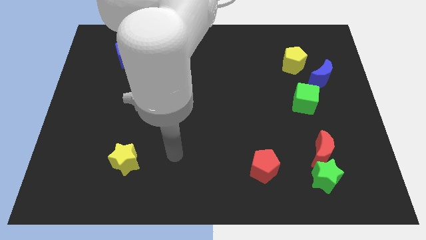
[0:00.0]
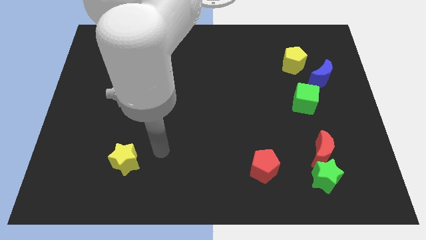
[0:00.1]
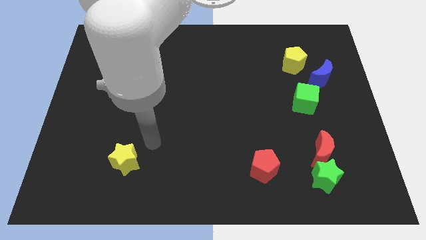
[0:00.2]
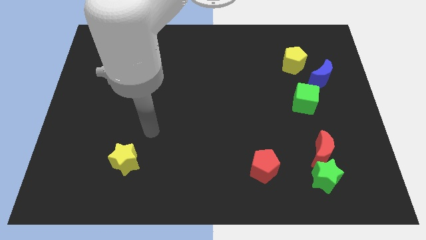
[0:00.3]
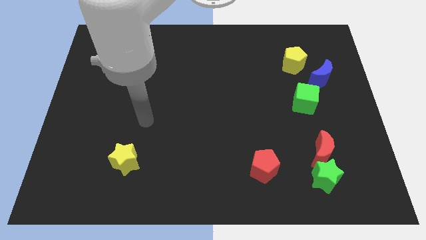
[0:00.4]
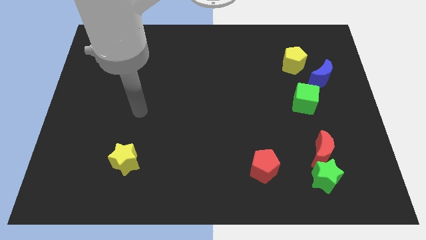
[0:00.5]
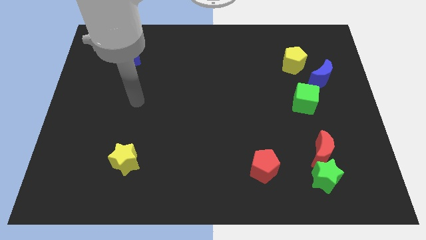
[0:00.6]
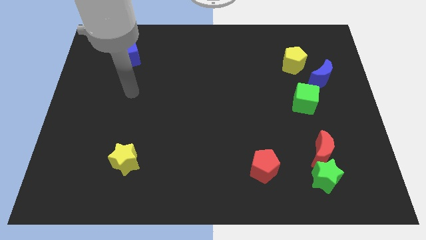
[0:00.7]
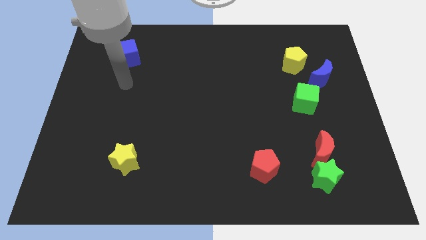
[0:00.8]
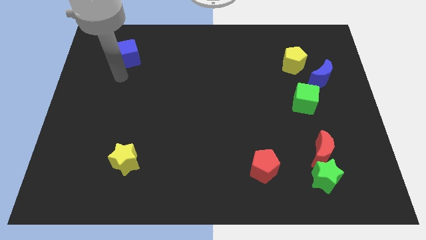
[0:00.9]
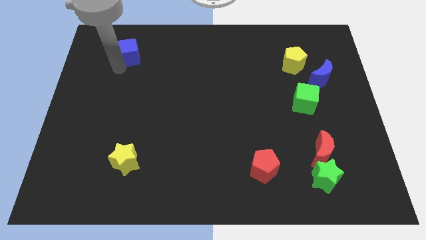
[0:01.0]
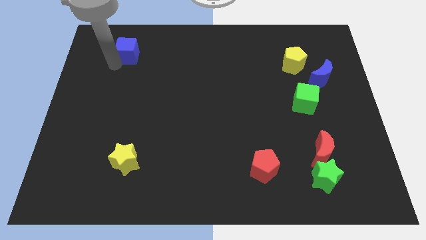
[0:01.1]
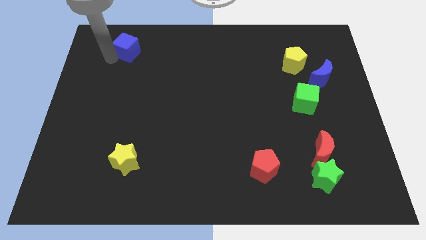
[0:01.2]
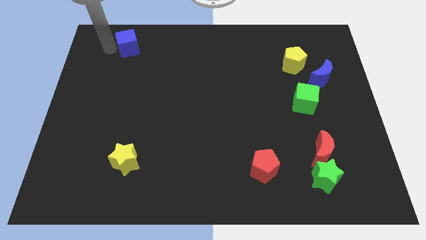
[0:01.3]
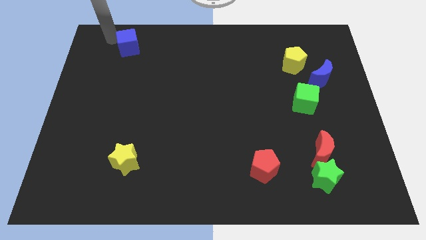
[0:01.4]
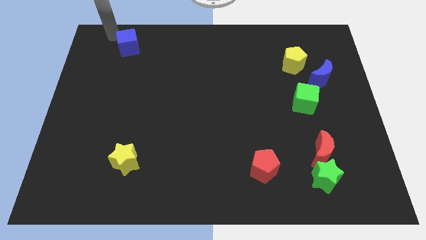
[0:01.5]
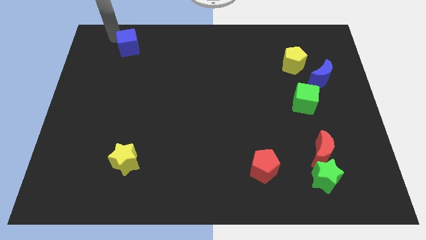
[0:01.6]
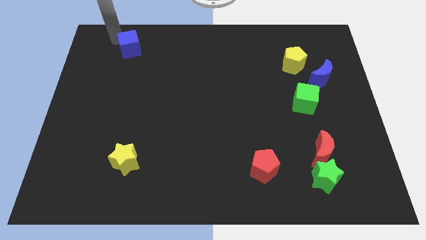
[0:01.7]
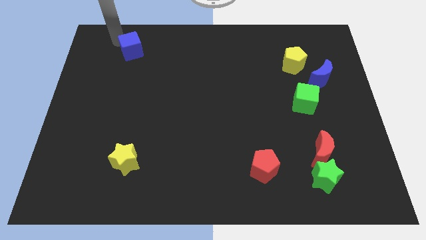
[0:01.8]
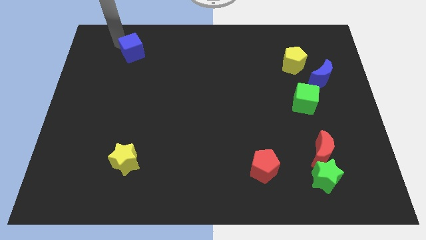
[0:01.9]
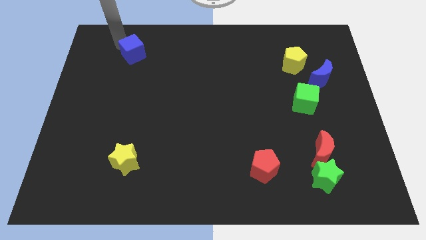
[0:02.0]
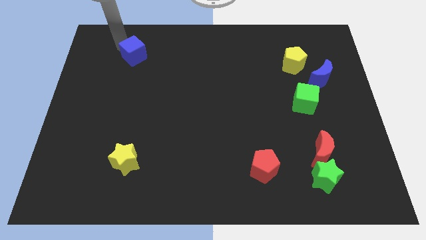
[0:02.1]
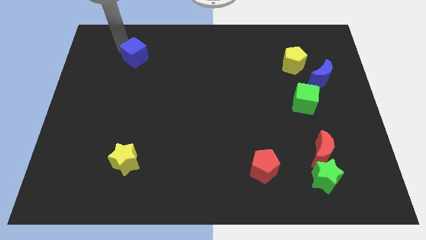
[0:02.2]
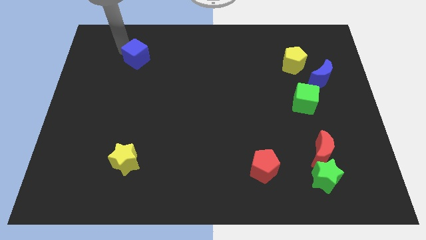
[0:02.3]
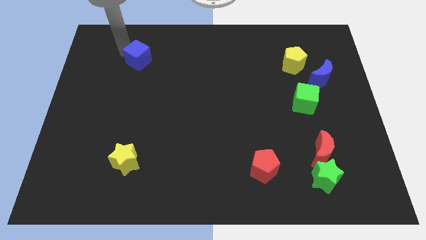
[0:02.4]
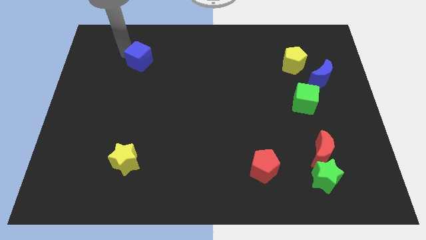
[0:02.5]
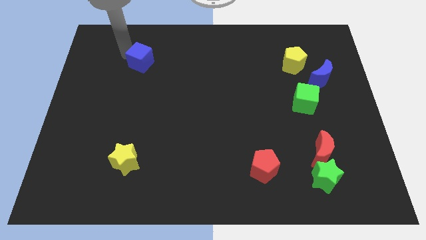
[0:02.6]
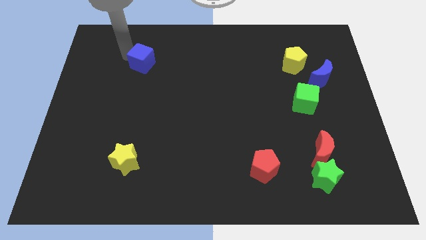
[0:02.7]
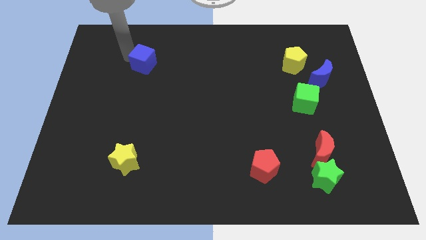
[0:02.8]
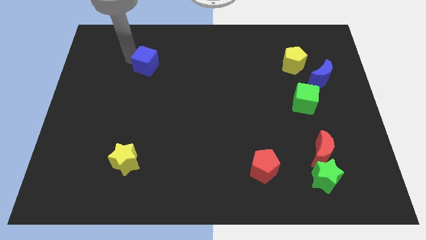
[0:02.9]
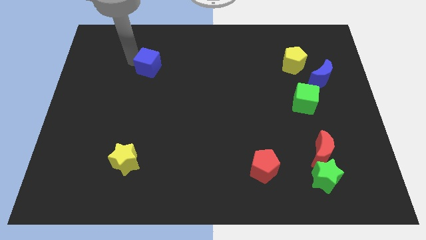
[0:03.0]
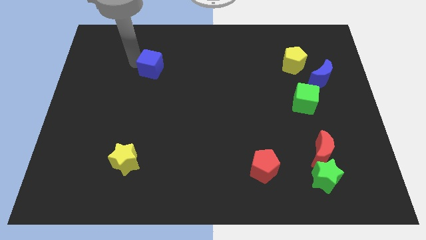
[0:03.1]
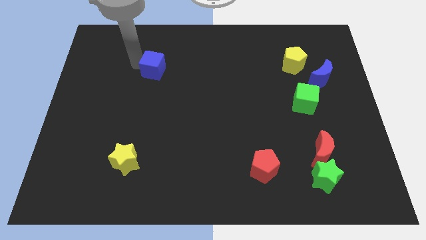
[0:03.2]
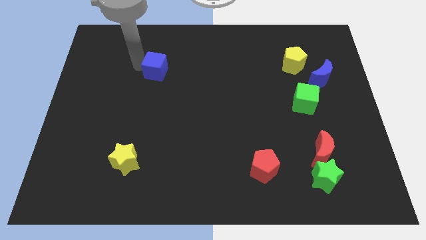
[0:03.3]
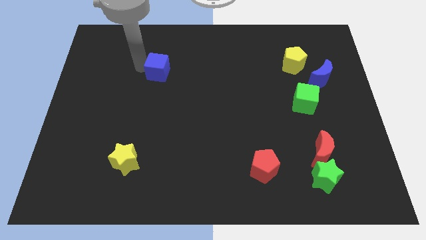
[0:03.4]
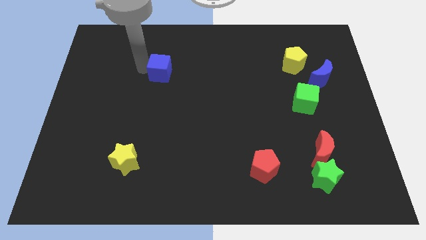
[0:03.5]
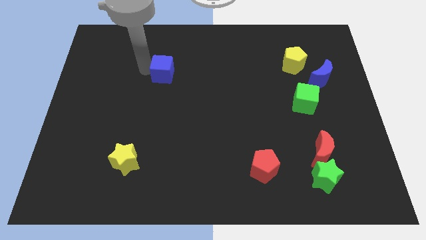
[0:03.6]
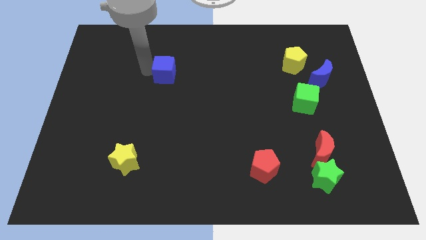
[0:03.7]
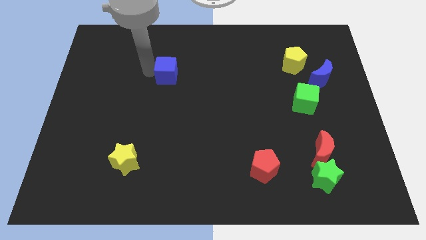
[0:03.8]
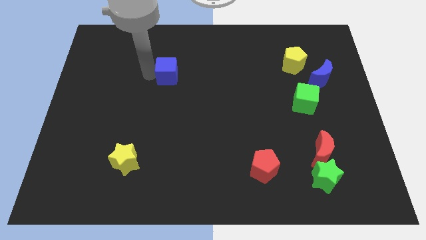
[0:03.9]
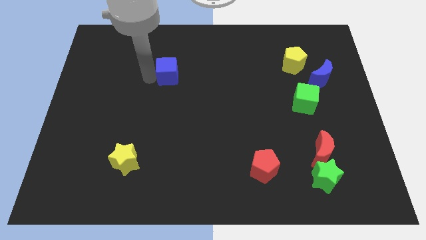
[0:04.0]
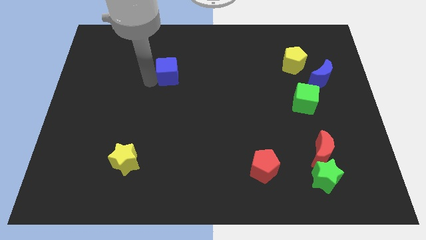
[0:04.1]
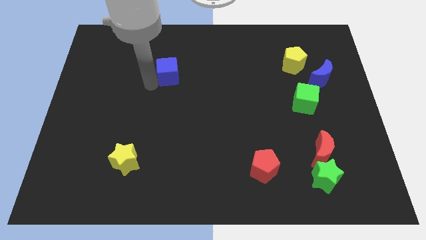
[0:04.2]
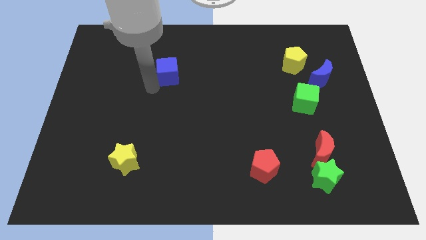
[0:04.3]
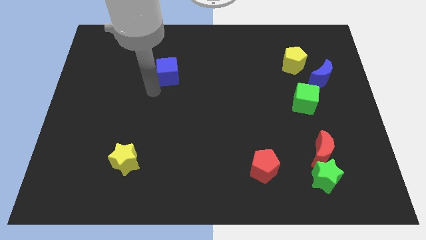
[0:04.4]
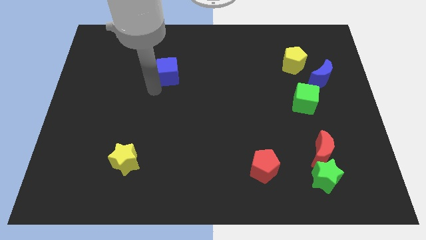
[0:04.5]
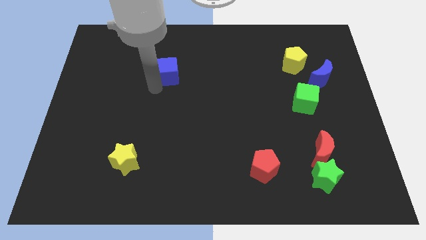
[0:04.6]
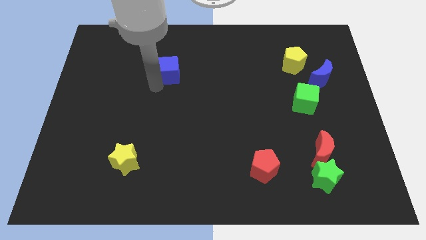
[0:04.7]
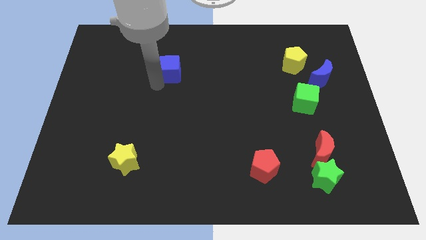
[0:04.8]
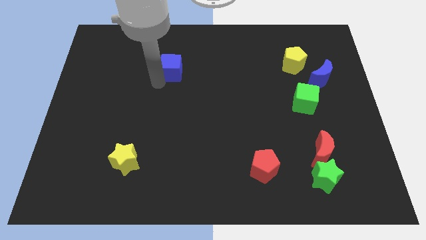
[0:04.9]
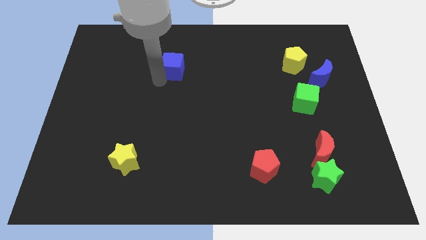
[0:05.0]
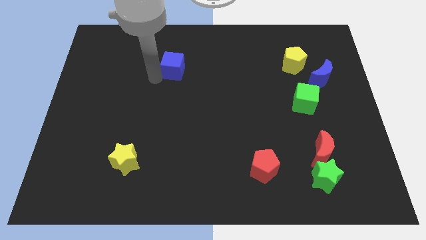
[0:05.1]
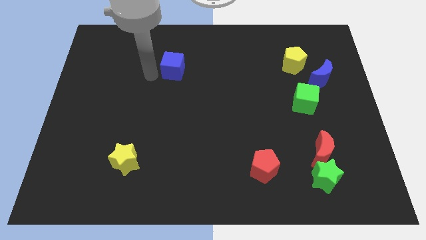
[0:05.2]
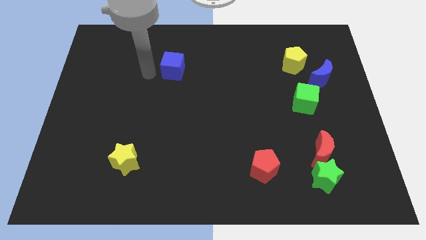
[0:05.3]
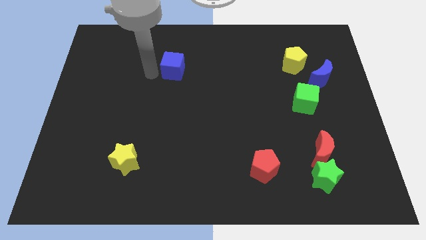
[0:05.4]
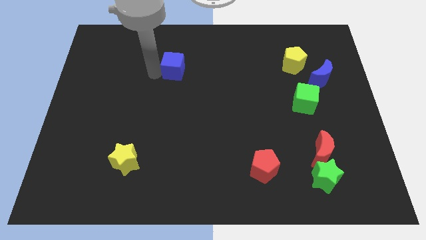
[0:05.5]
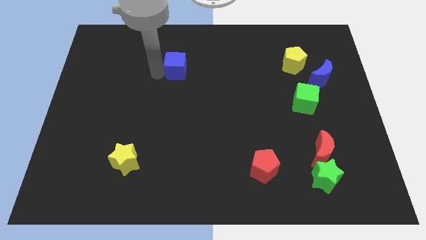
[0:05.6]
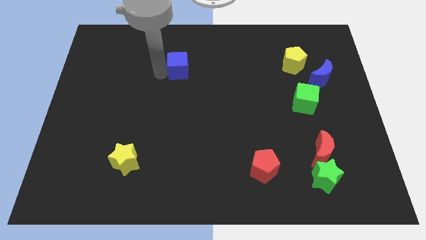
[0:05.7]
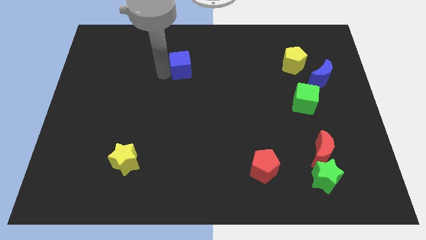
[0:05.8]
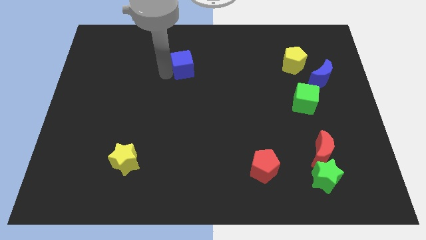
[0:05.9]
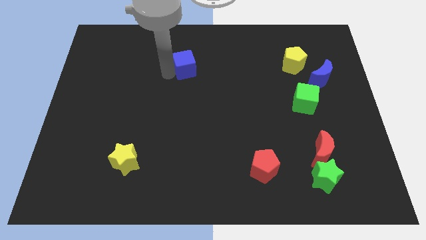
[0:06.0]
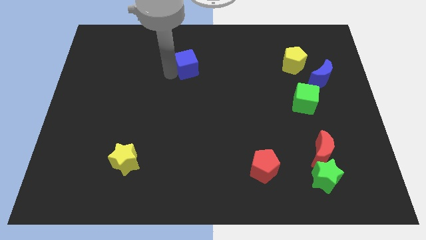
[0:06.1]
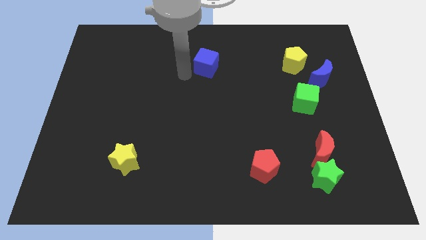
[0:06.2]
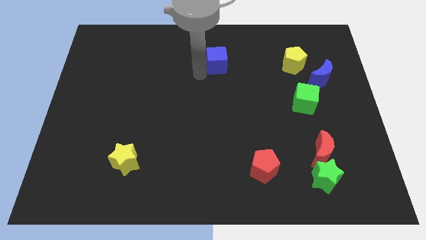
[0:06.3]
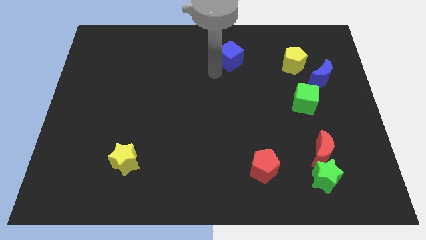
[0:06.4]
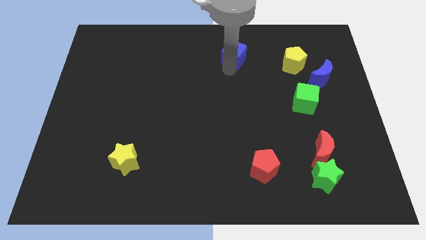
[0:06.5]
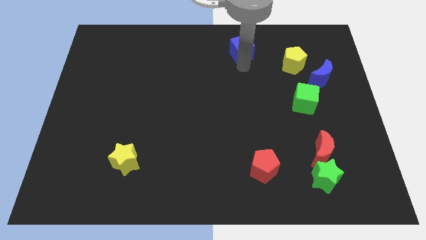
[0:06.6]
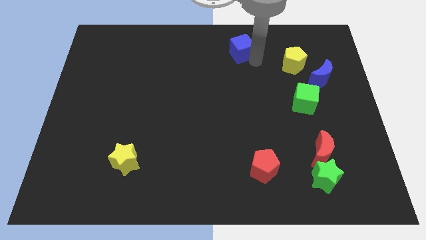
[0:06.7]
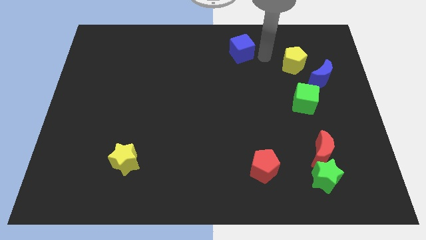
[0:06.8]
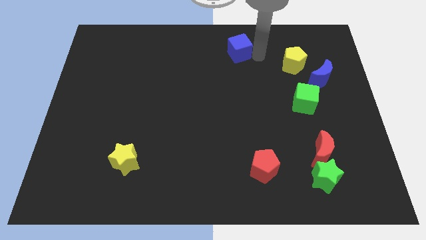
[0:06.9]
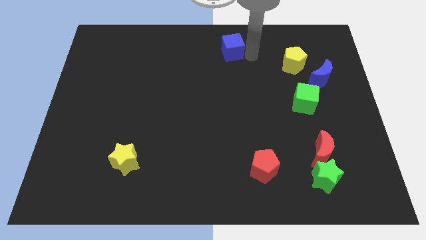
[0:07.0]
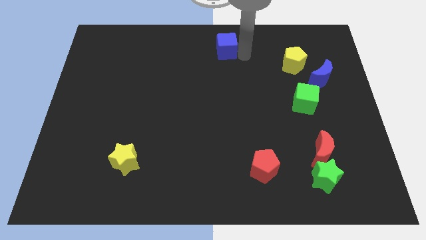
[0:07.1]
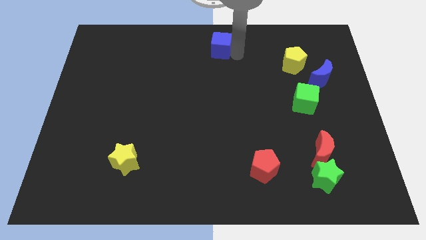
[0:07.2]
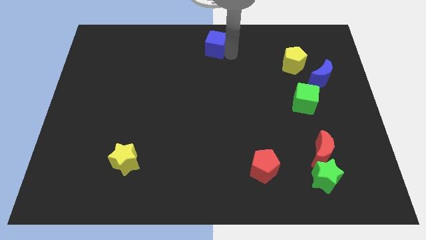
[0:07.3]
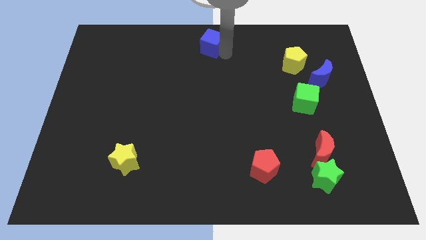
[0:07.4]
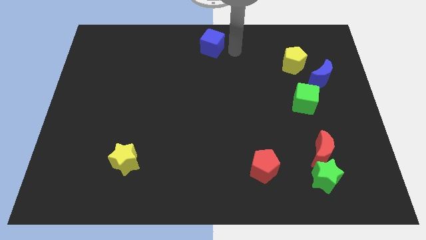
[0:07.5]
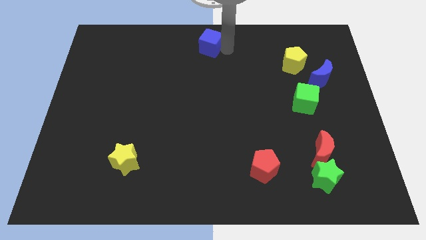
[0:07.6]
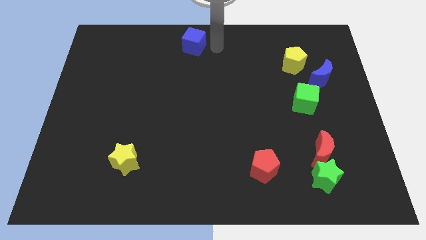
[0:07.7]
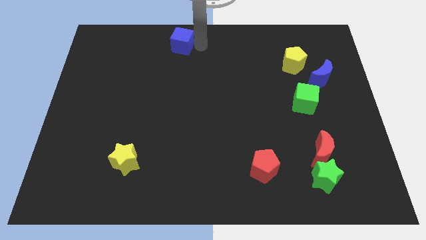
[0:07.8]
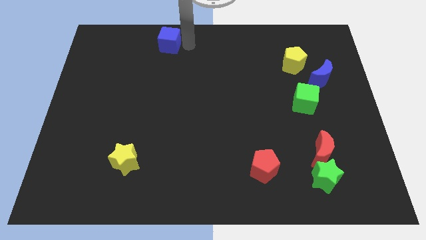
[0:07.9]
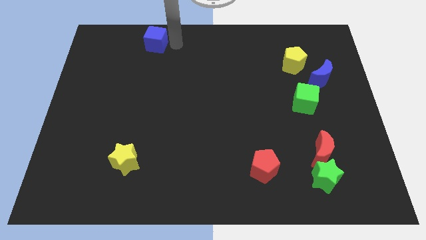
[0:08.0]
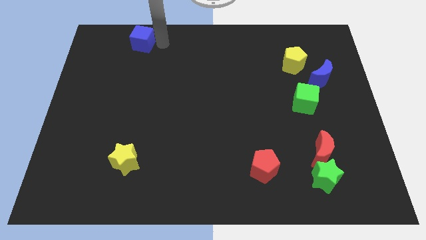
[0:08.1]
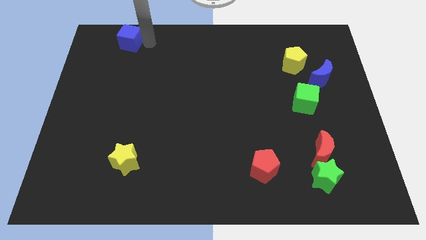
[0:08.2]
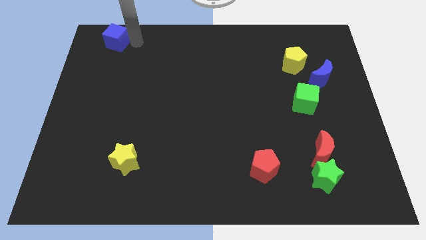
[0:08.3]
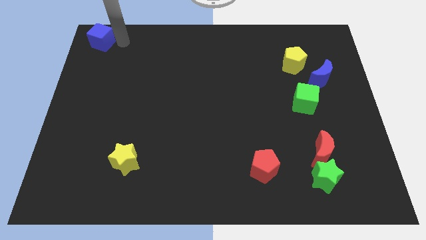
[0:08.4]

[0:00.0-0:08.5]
slide the blue cube to the top left corner
